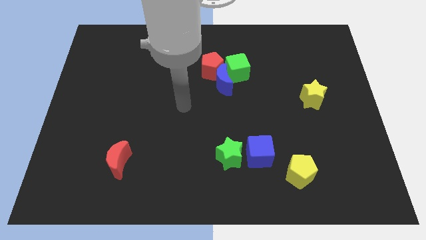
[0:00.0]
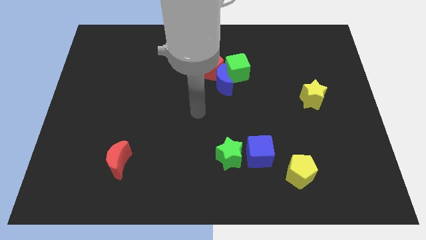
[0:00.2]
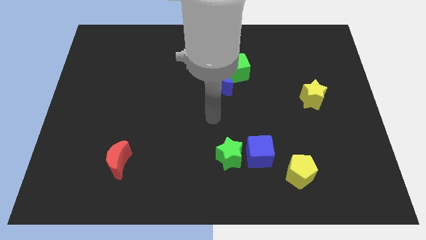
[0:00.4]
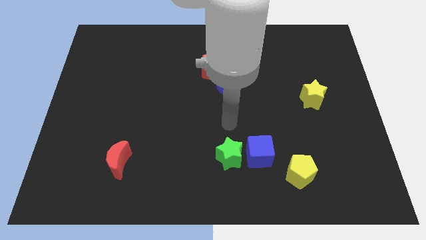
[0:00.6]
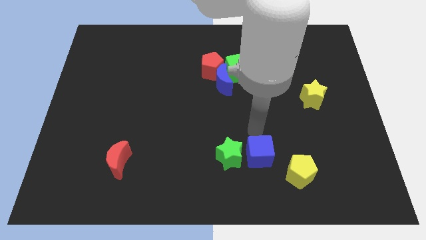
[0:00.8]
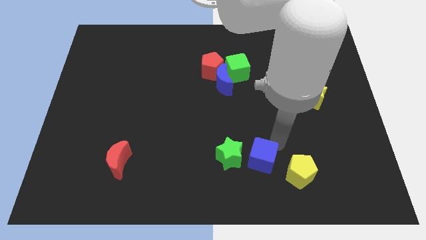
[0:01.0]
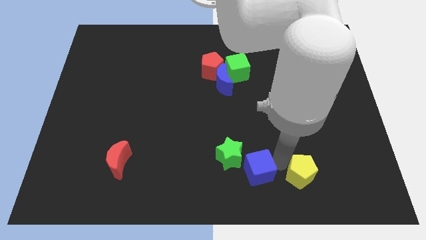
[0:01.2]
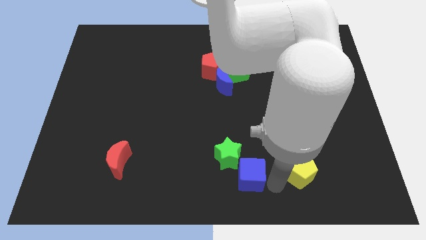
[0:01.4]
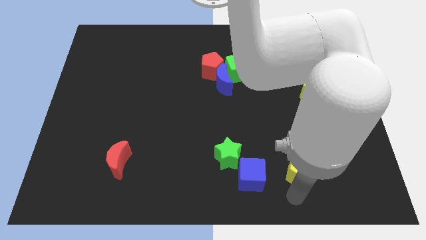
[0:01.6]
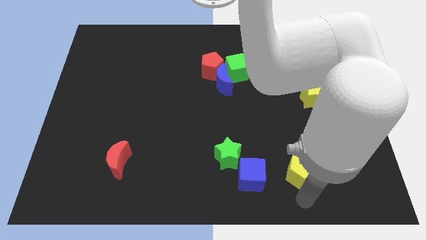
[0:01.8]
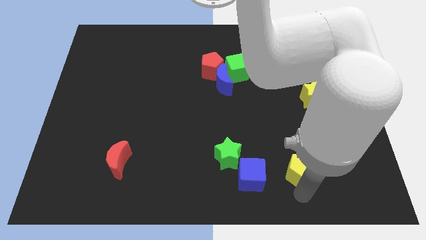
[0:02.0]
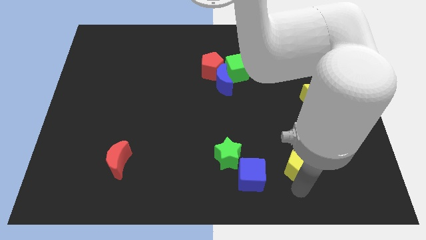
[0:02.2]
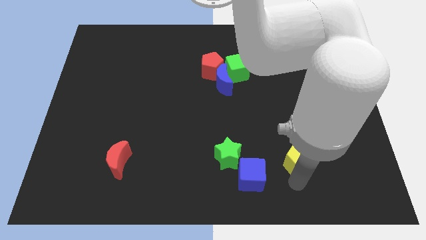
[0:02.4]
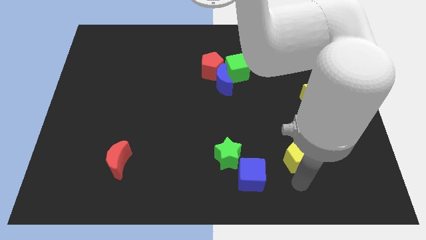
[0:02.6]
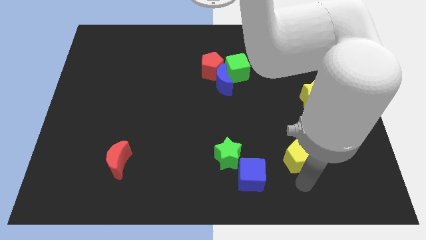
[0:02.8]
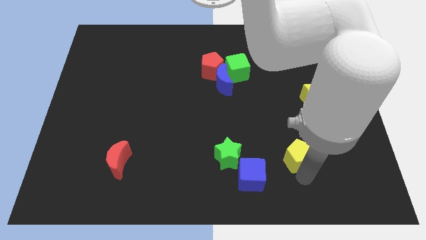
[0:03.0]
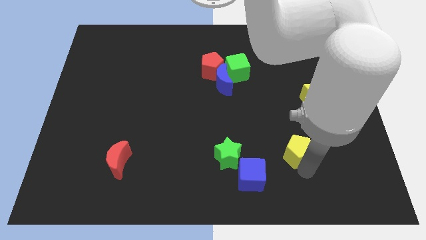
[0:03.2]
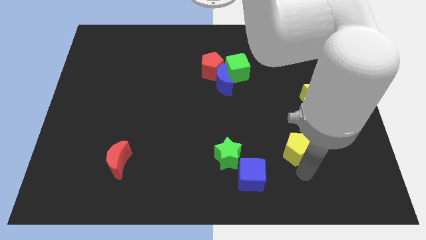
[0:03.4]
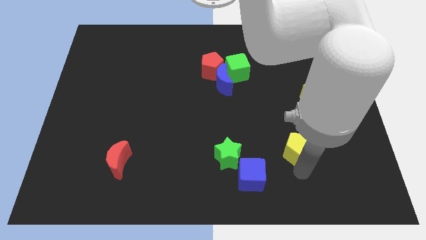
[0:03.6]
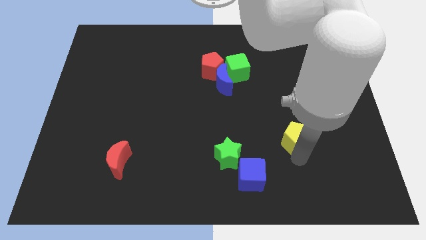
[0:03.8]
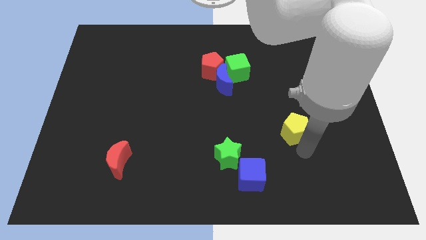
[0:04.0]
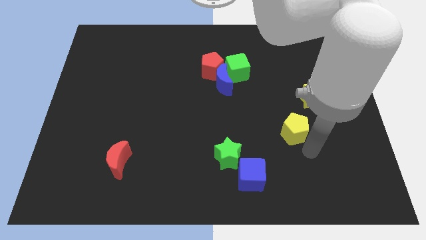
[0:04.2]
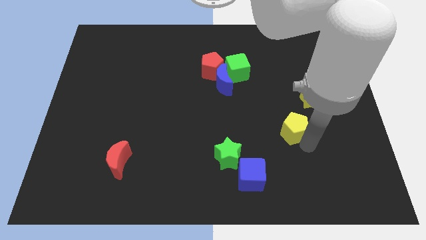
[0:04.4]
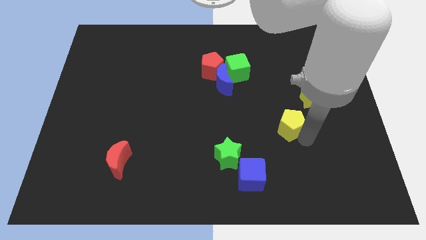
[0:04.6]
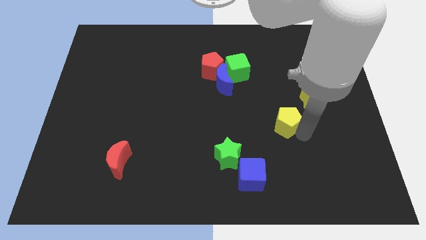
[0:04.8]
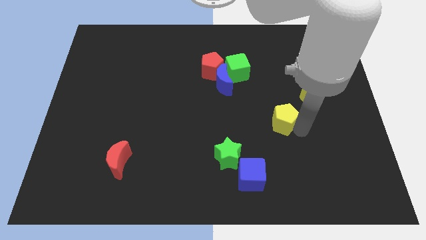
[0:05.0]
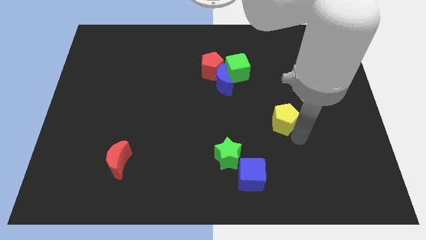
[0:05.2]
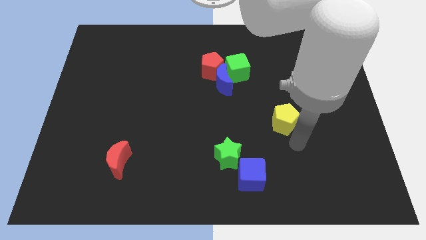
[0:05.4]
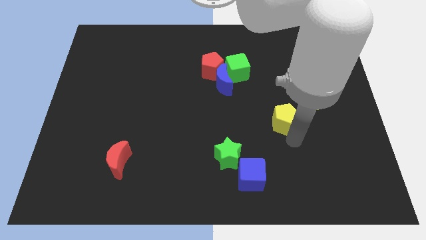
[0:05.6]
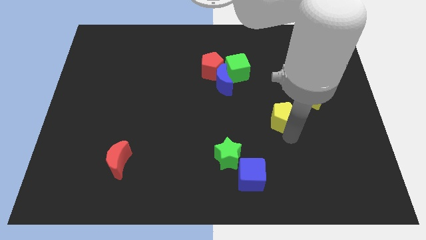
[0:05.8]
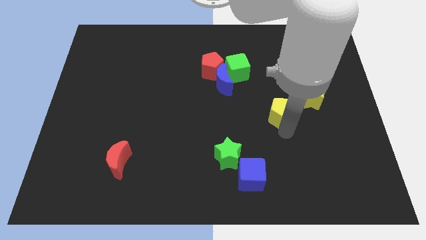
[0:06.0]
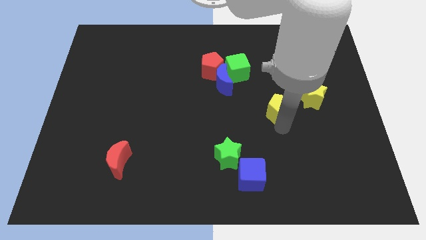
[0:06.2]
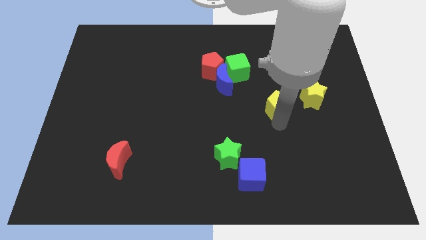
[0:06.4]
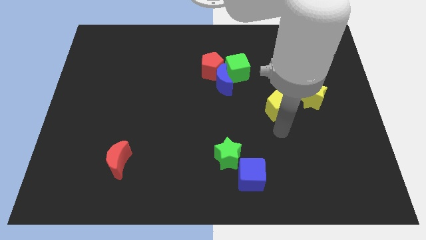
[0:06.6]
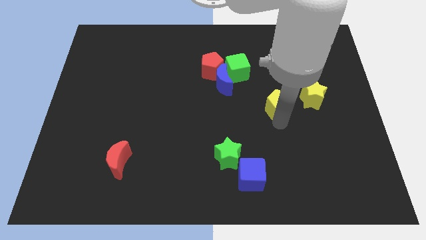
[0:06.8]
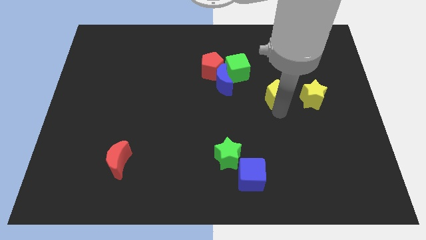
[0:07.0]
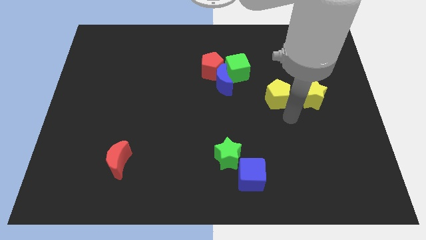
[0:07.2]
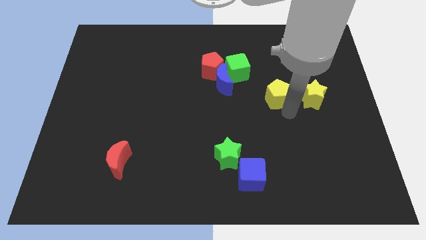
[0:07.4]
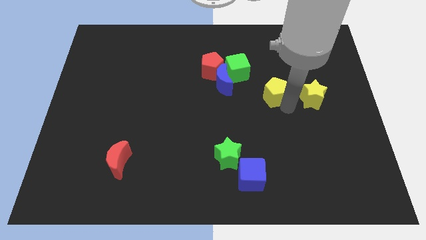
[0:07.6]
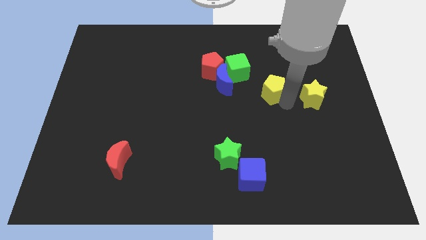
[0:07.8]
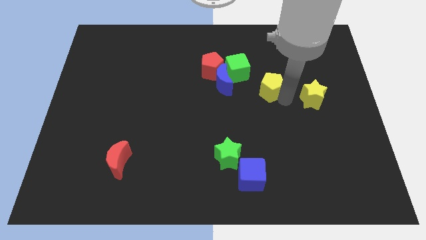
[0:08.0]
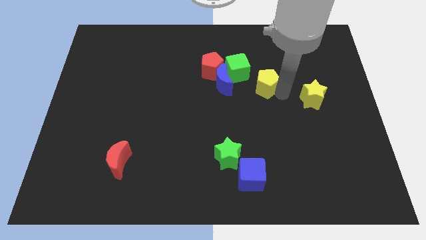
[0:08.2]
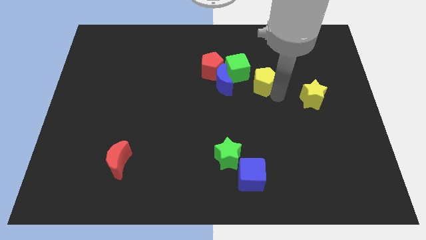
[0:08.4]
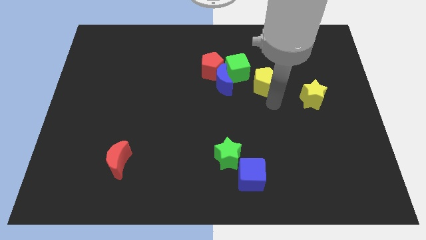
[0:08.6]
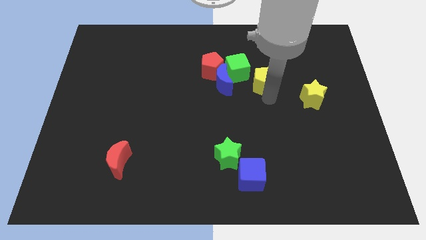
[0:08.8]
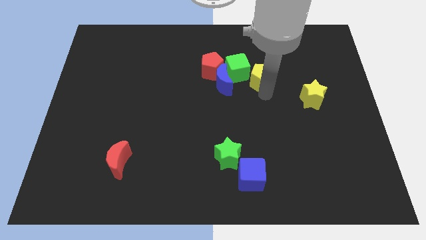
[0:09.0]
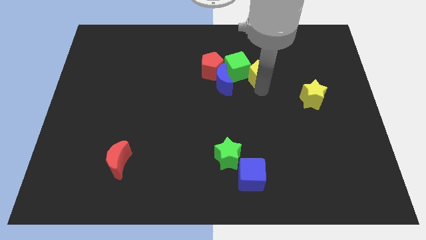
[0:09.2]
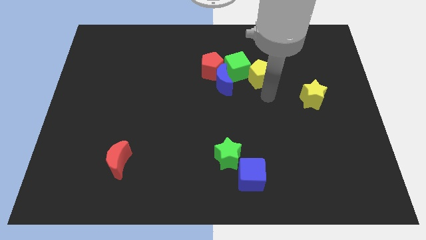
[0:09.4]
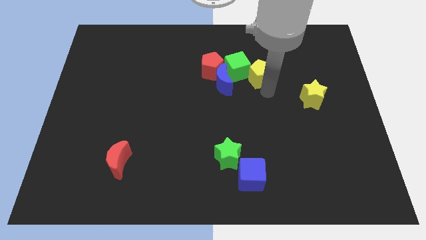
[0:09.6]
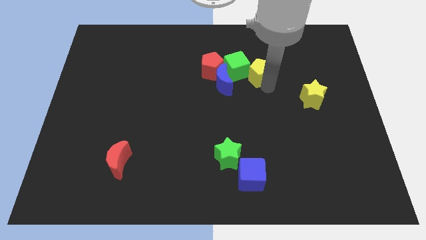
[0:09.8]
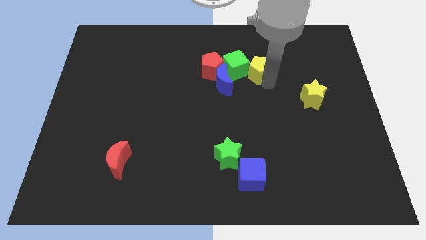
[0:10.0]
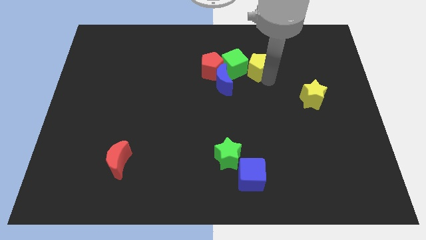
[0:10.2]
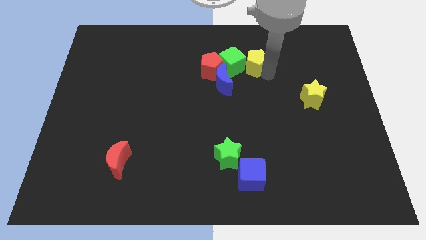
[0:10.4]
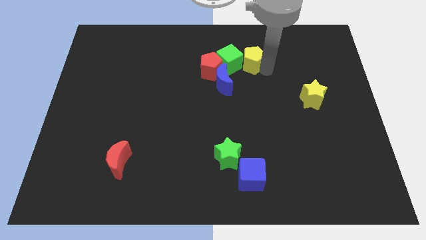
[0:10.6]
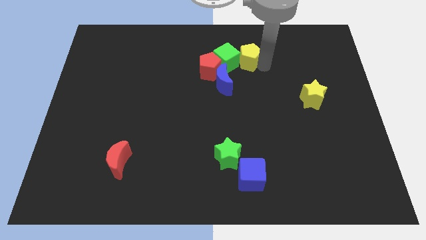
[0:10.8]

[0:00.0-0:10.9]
slide the yellow pentagon to the top right side of the red pentagon

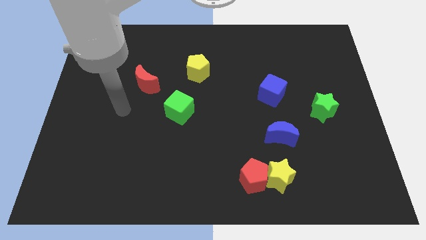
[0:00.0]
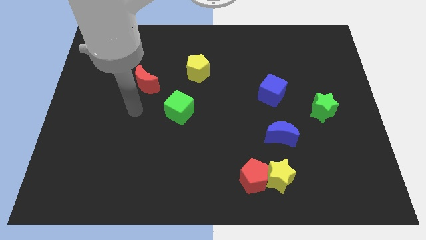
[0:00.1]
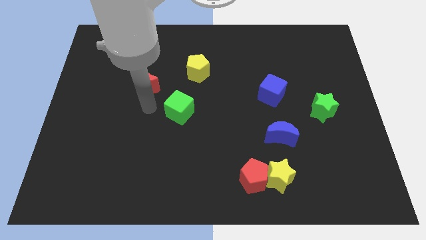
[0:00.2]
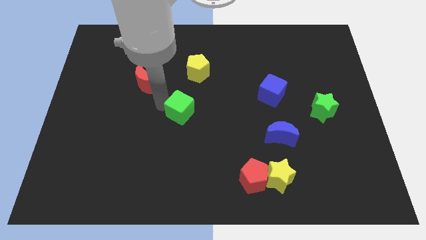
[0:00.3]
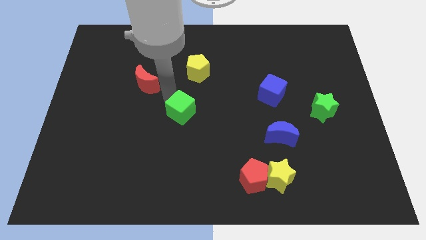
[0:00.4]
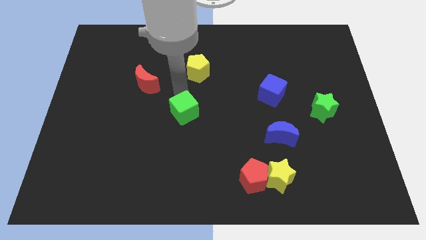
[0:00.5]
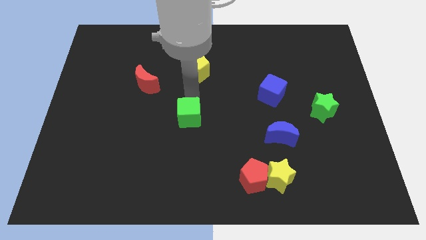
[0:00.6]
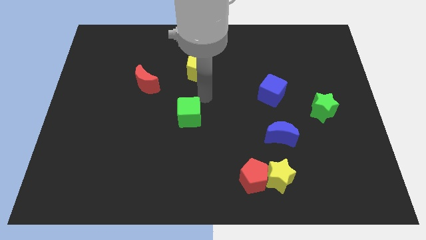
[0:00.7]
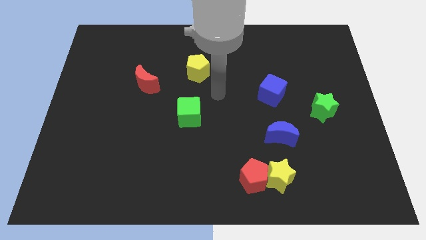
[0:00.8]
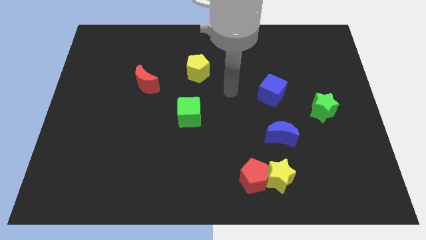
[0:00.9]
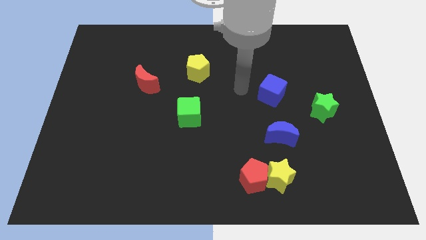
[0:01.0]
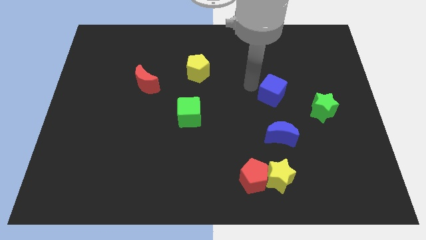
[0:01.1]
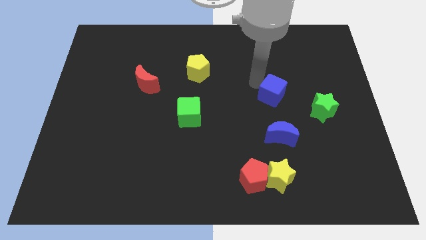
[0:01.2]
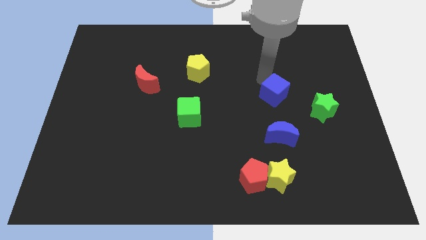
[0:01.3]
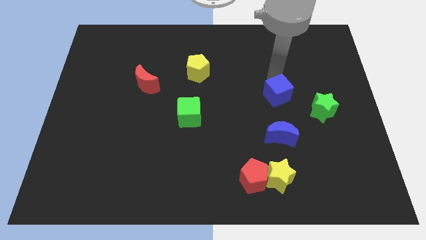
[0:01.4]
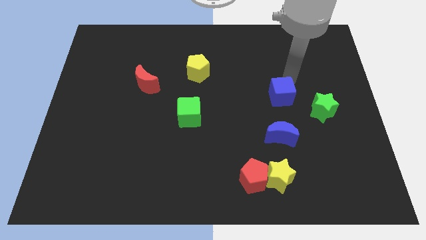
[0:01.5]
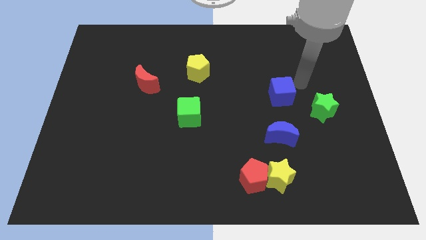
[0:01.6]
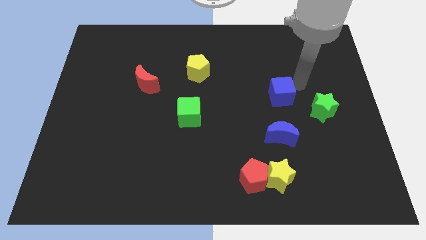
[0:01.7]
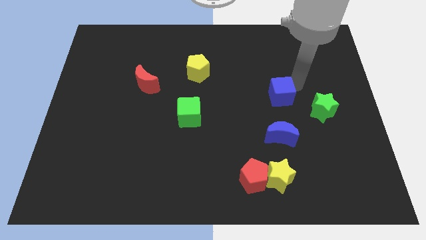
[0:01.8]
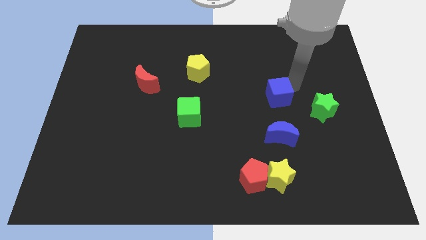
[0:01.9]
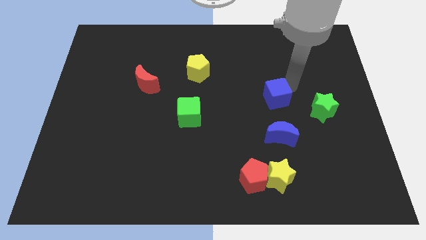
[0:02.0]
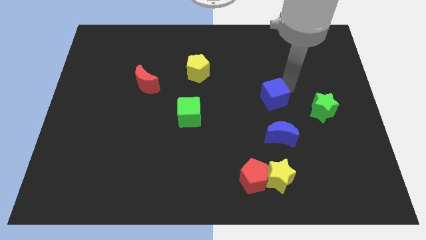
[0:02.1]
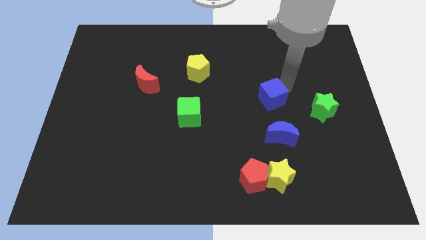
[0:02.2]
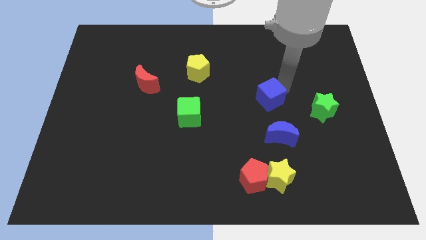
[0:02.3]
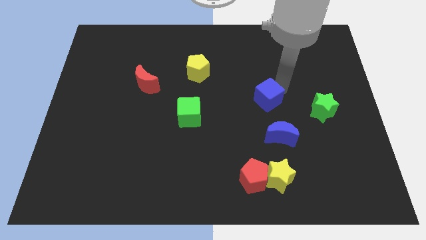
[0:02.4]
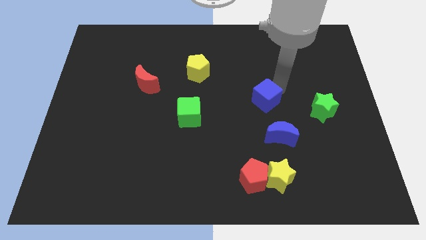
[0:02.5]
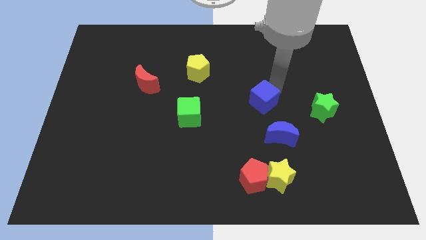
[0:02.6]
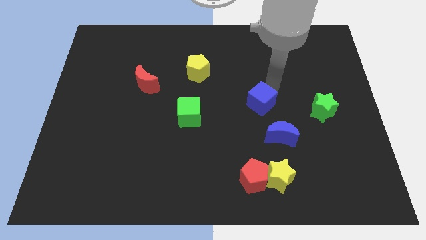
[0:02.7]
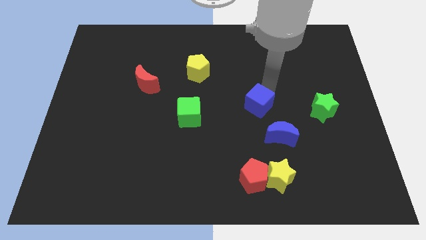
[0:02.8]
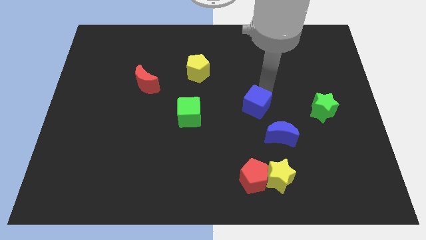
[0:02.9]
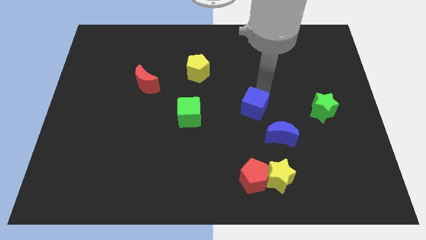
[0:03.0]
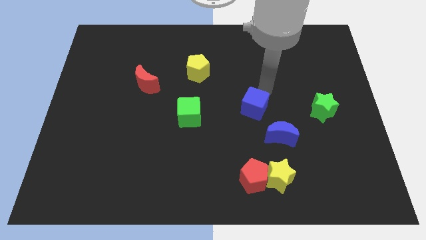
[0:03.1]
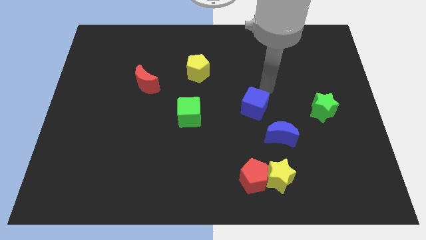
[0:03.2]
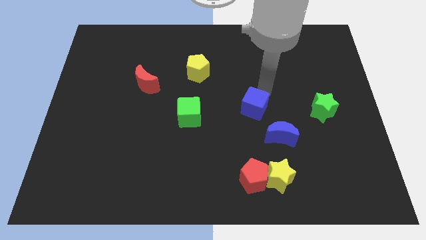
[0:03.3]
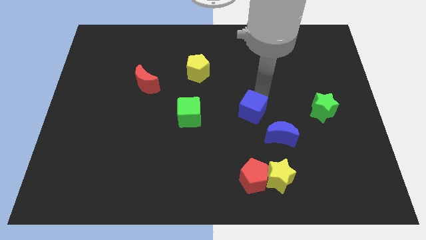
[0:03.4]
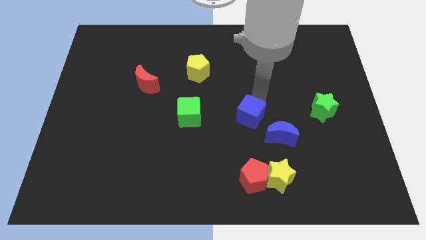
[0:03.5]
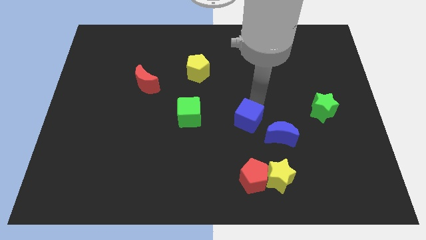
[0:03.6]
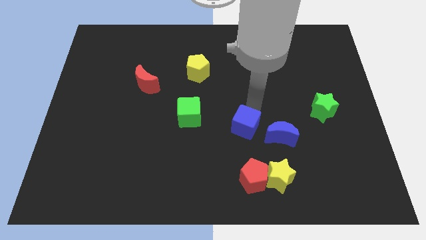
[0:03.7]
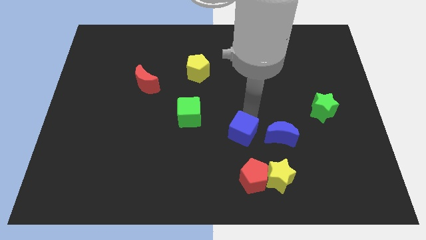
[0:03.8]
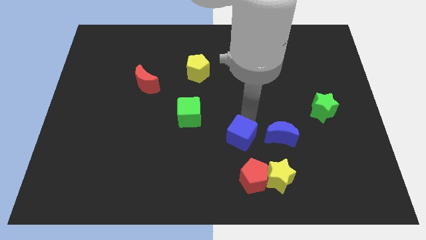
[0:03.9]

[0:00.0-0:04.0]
put the blue cube diagonally up and to the left of the yellow star
